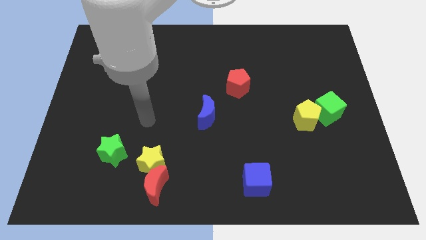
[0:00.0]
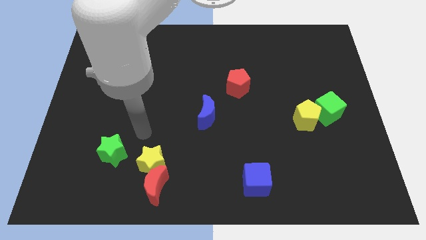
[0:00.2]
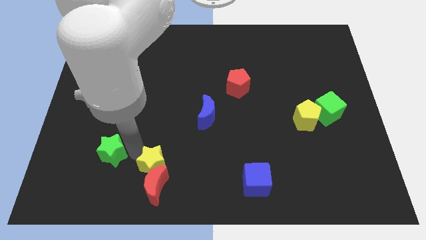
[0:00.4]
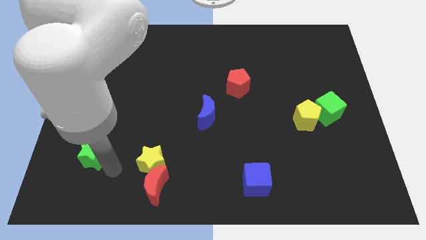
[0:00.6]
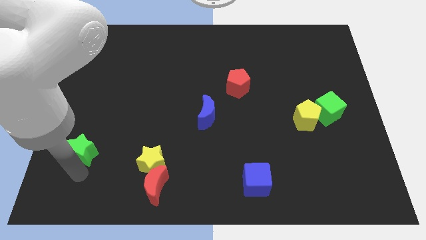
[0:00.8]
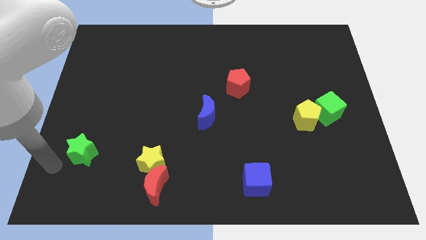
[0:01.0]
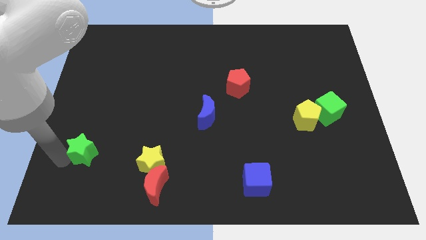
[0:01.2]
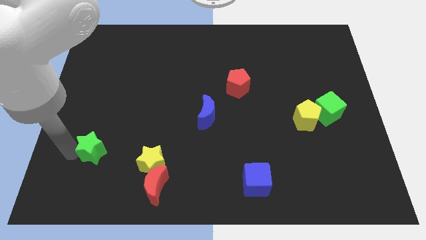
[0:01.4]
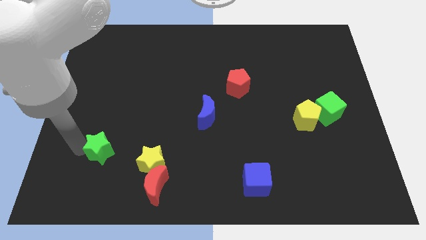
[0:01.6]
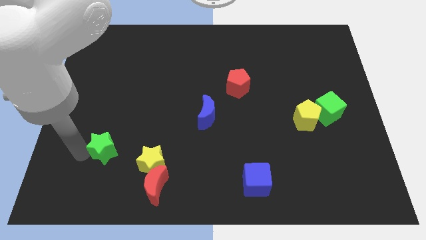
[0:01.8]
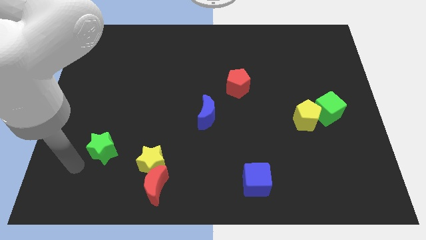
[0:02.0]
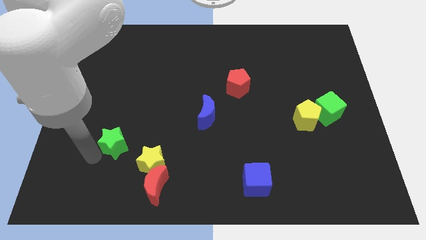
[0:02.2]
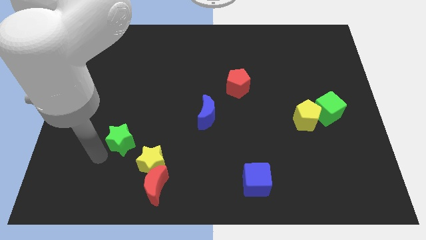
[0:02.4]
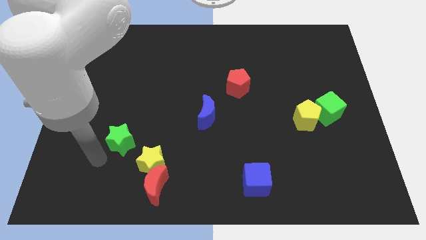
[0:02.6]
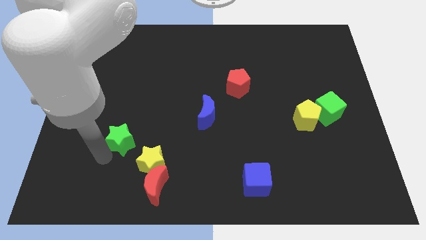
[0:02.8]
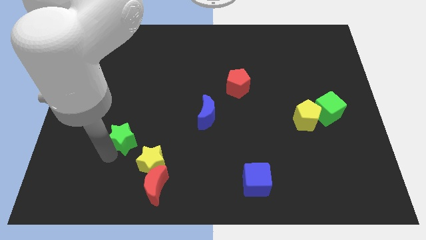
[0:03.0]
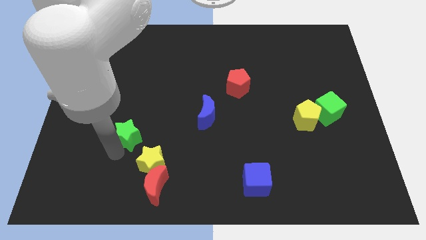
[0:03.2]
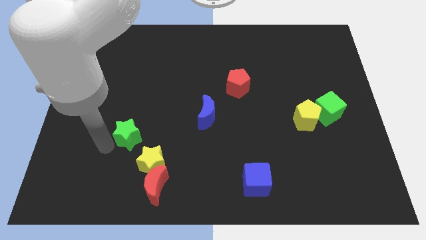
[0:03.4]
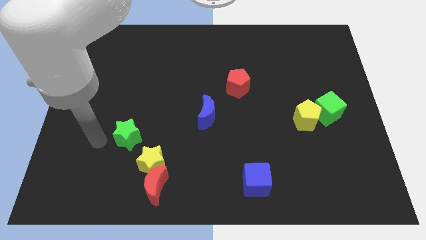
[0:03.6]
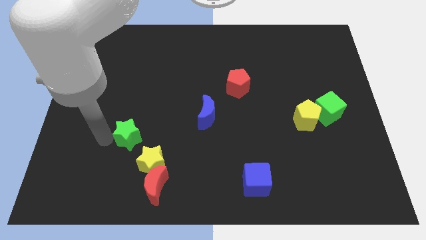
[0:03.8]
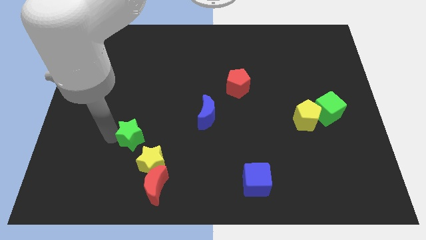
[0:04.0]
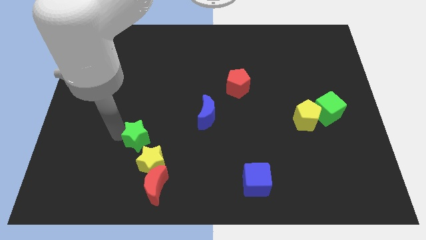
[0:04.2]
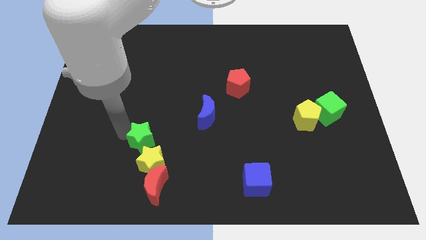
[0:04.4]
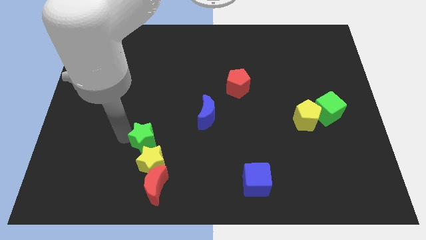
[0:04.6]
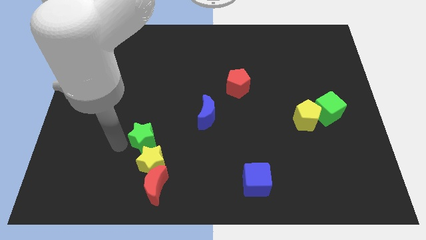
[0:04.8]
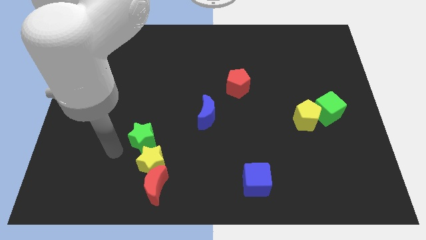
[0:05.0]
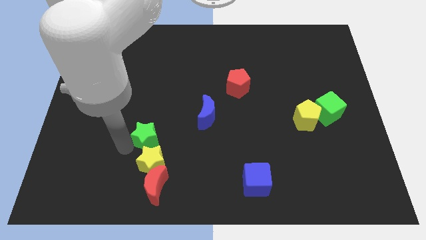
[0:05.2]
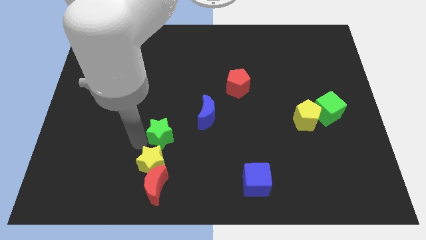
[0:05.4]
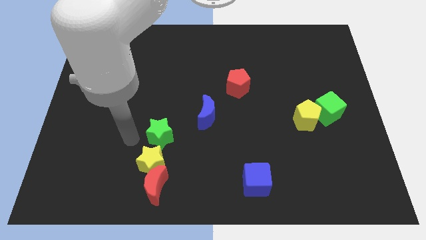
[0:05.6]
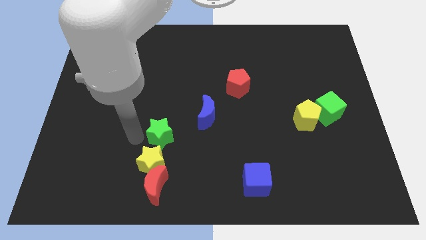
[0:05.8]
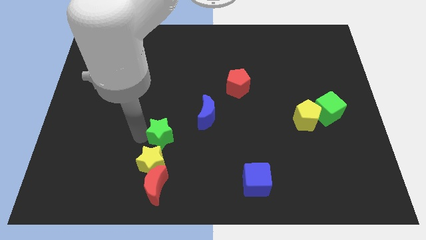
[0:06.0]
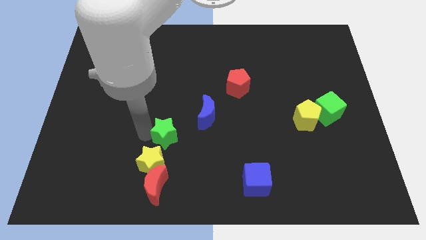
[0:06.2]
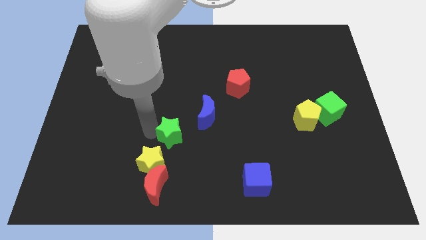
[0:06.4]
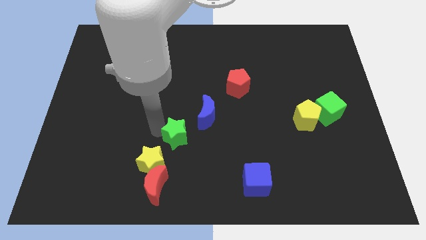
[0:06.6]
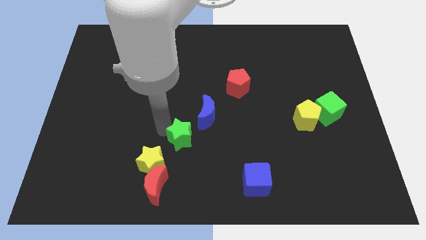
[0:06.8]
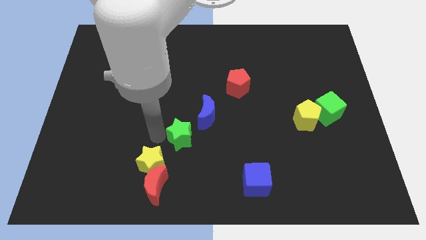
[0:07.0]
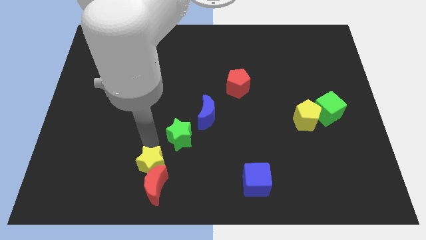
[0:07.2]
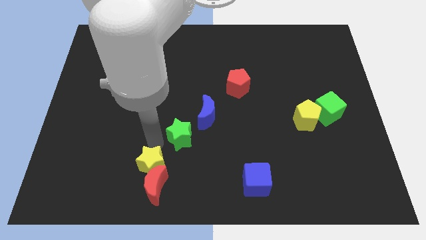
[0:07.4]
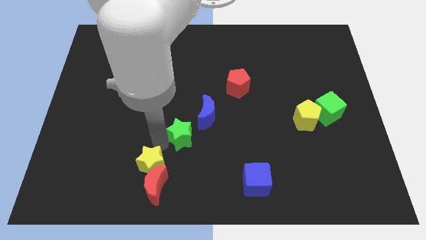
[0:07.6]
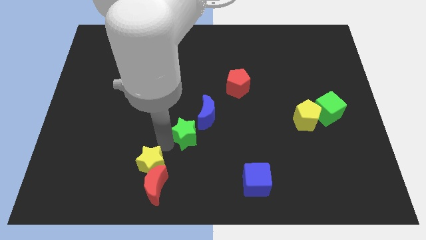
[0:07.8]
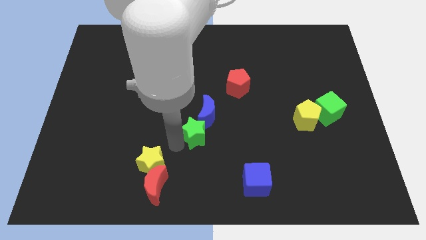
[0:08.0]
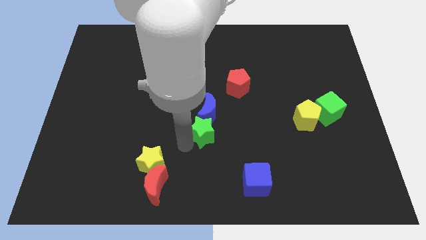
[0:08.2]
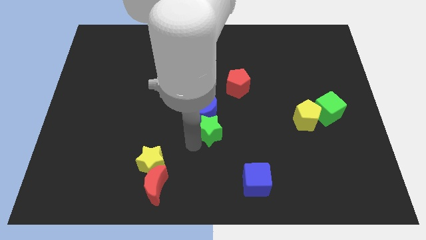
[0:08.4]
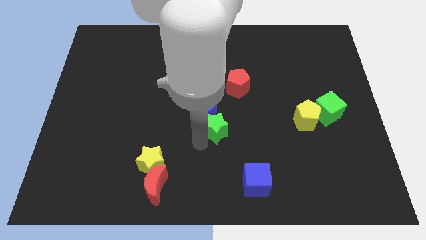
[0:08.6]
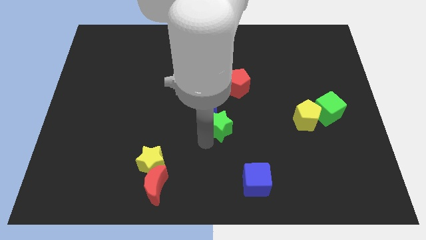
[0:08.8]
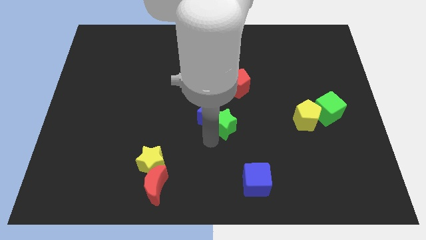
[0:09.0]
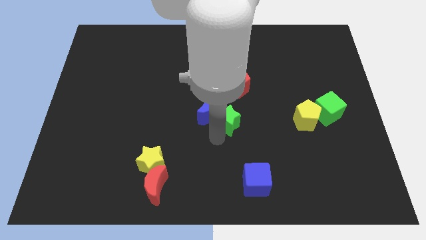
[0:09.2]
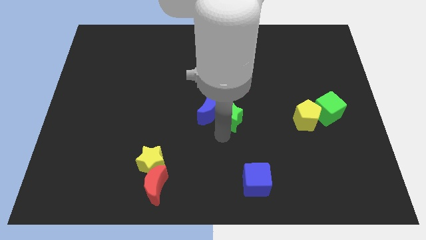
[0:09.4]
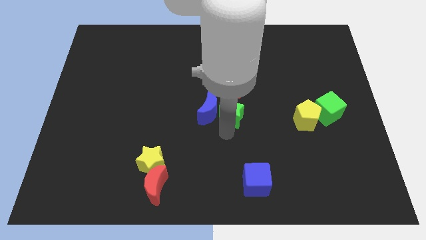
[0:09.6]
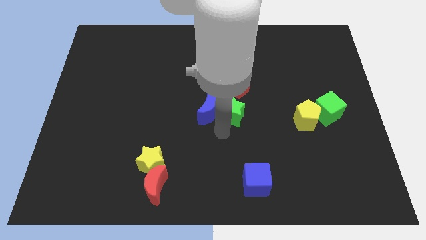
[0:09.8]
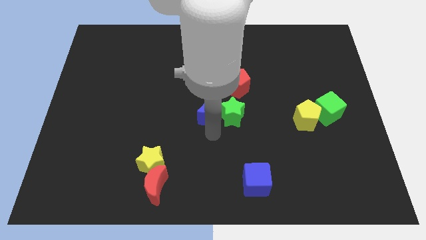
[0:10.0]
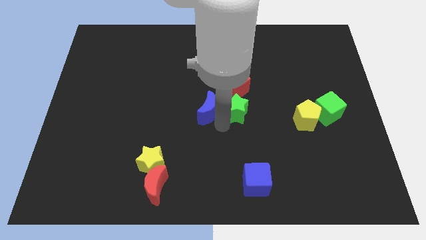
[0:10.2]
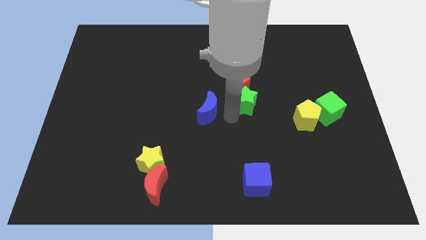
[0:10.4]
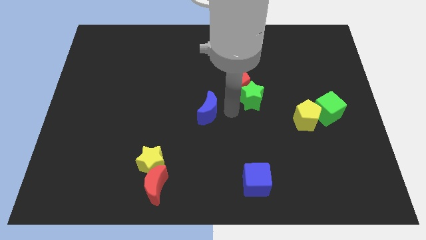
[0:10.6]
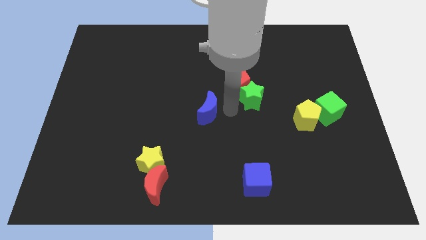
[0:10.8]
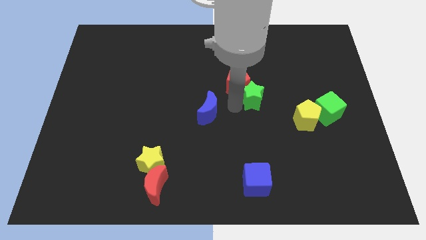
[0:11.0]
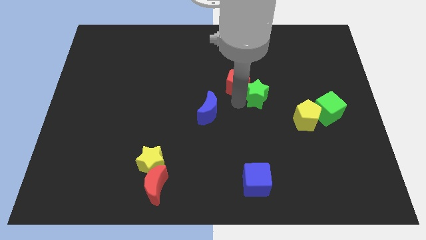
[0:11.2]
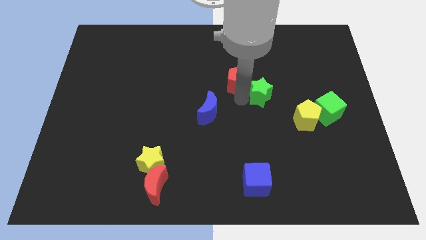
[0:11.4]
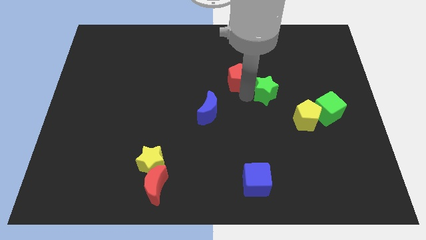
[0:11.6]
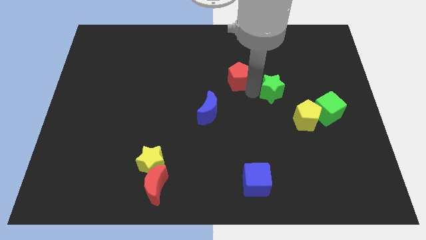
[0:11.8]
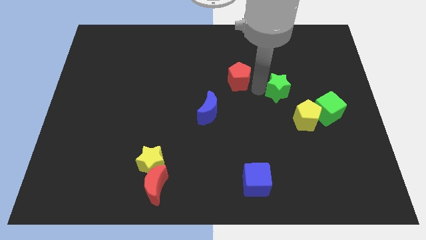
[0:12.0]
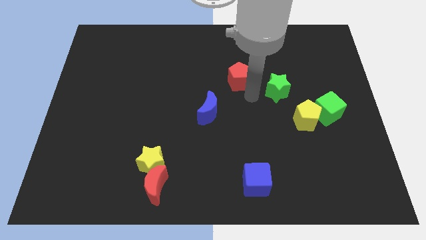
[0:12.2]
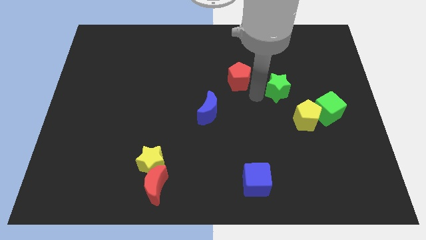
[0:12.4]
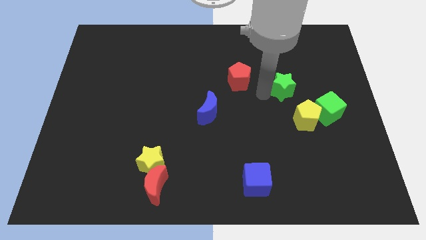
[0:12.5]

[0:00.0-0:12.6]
slide the green star above the yellow pentagon

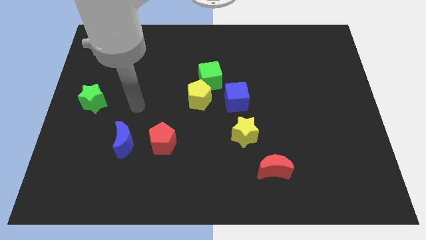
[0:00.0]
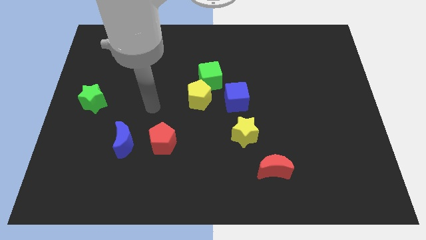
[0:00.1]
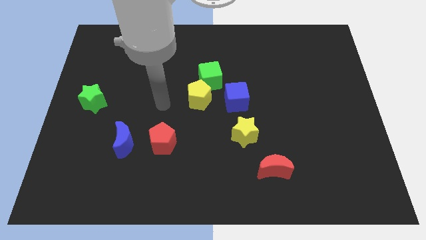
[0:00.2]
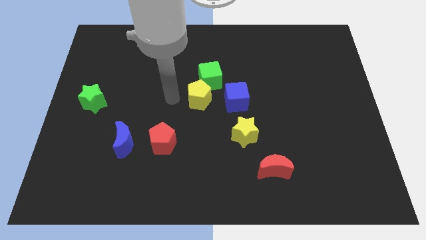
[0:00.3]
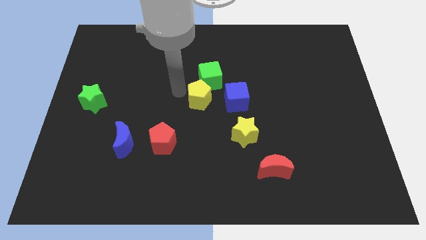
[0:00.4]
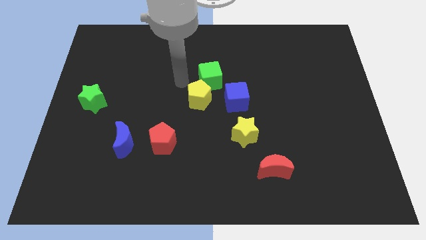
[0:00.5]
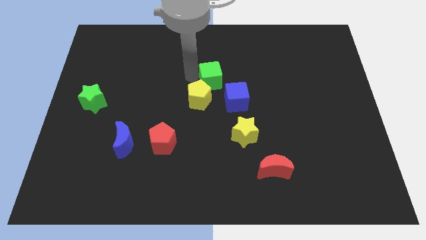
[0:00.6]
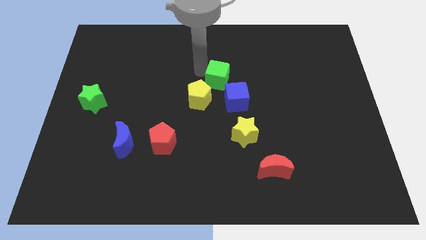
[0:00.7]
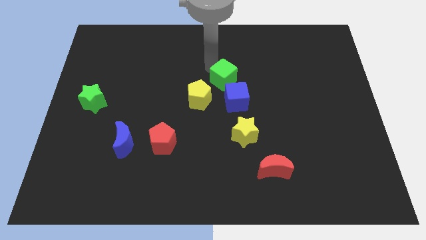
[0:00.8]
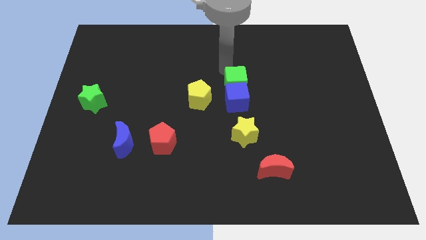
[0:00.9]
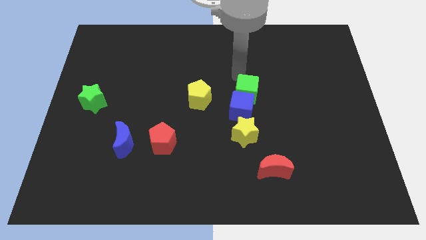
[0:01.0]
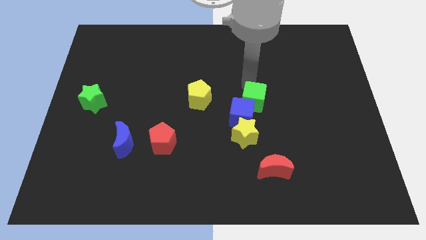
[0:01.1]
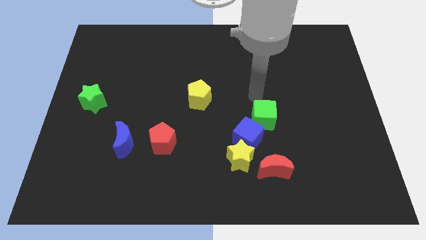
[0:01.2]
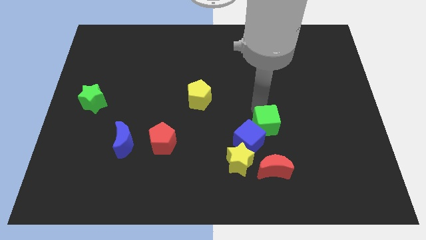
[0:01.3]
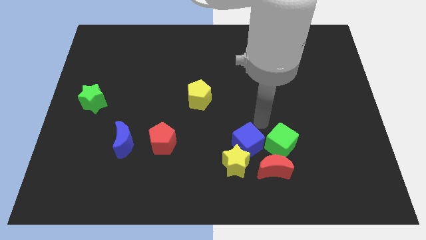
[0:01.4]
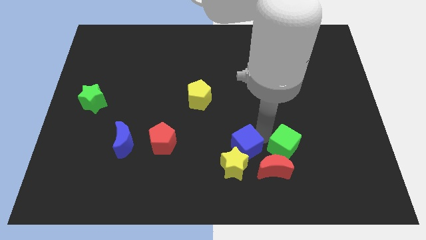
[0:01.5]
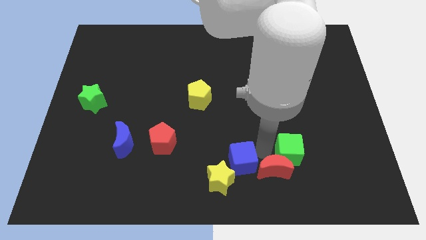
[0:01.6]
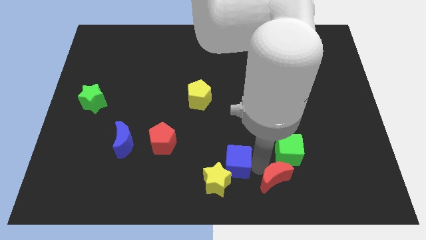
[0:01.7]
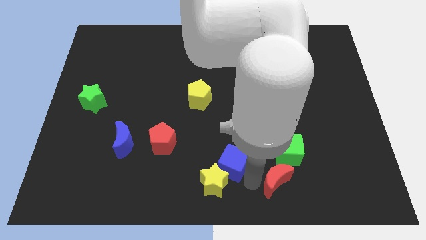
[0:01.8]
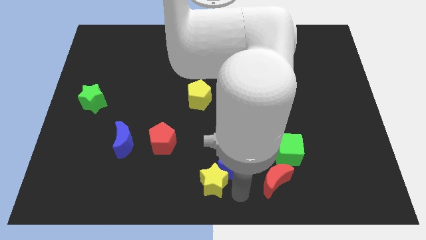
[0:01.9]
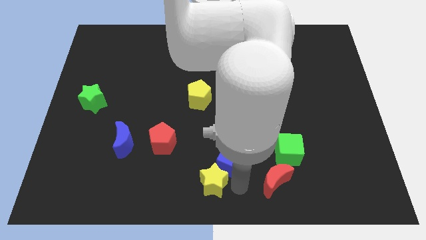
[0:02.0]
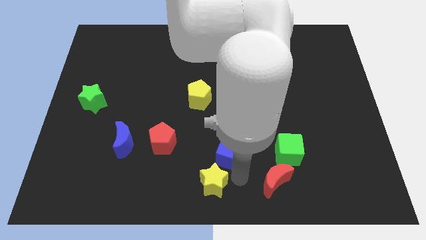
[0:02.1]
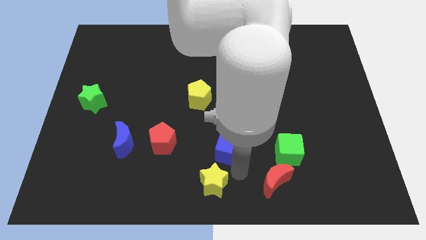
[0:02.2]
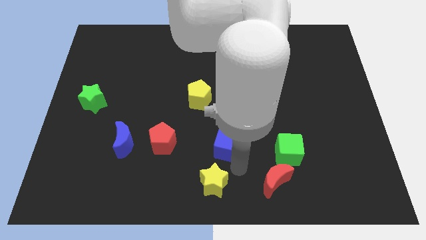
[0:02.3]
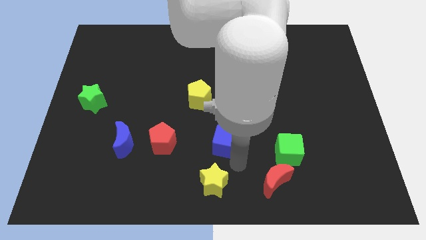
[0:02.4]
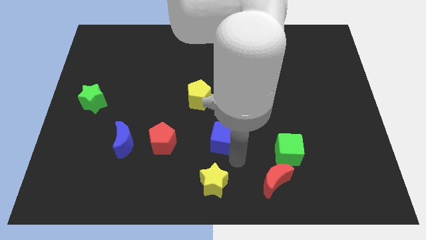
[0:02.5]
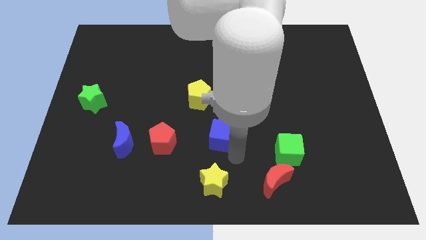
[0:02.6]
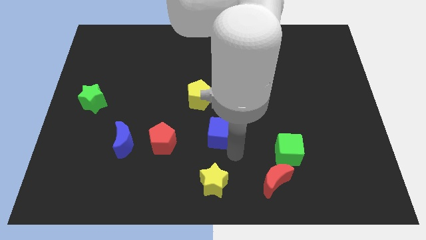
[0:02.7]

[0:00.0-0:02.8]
slide the blue cube to the bottom of the yellow pentagon
